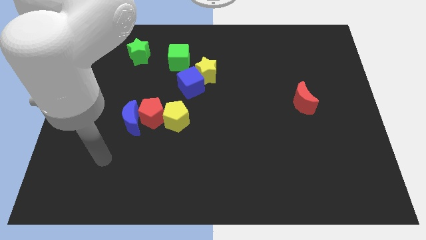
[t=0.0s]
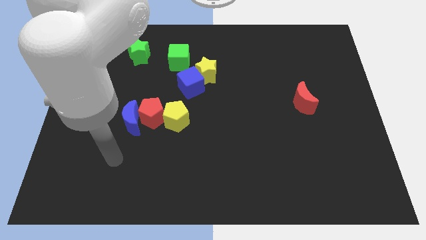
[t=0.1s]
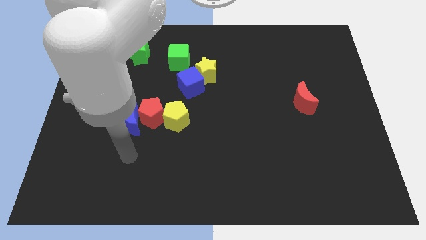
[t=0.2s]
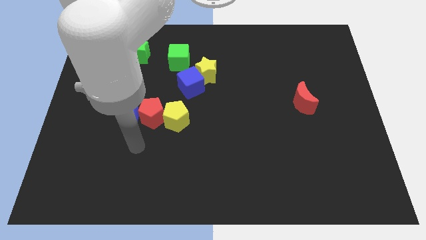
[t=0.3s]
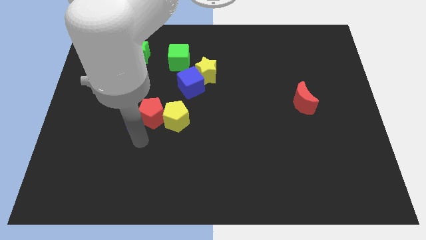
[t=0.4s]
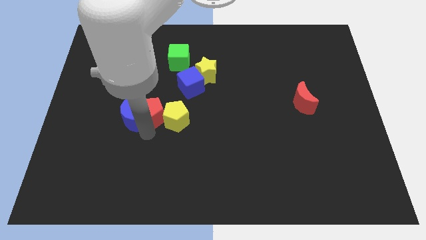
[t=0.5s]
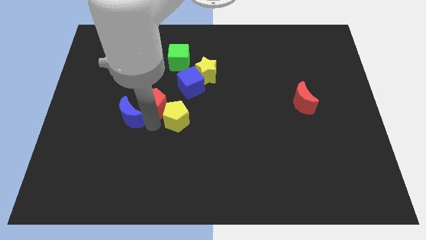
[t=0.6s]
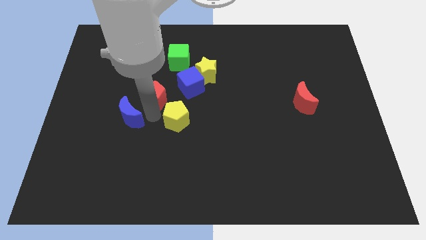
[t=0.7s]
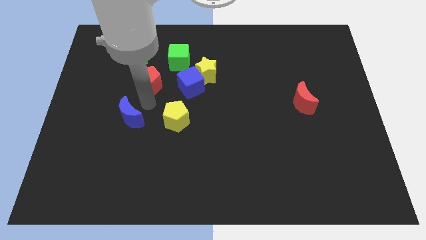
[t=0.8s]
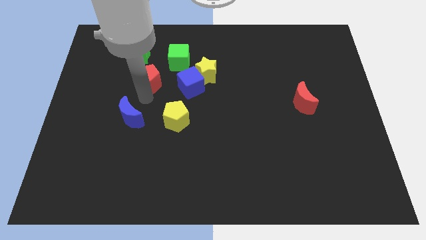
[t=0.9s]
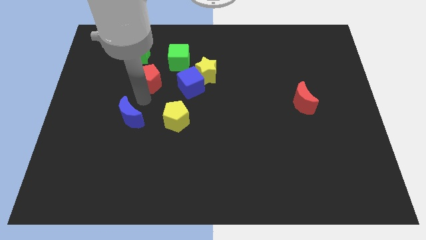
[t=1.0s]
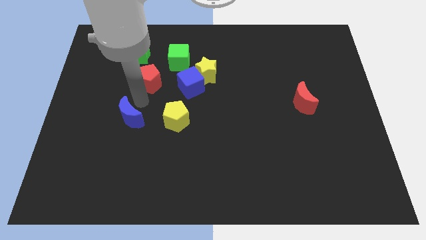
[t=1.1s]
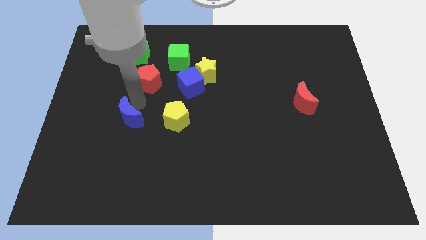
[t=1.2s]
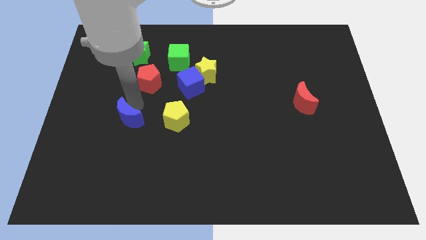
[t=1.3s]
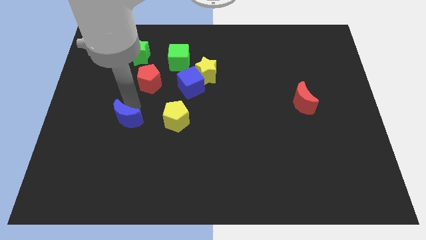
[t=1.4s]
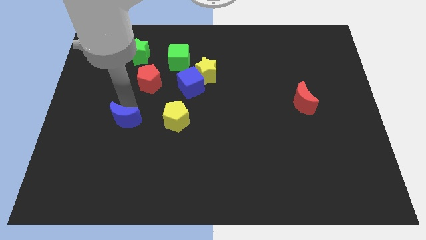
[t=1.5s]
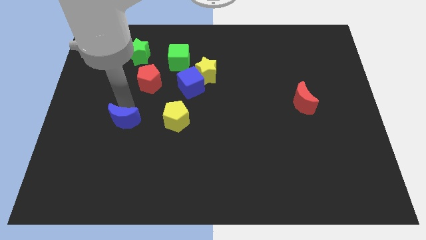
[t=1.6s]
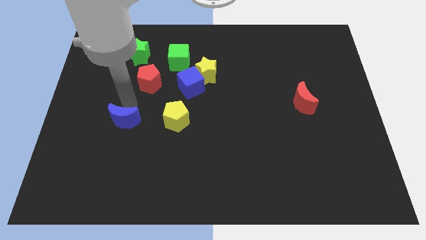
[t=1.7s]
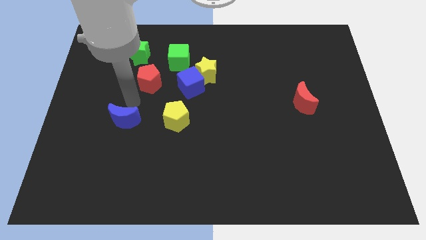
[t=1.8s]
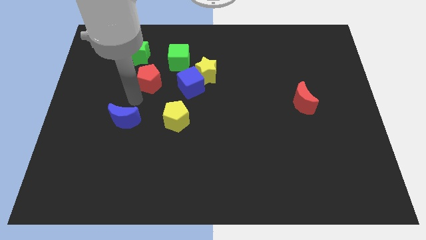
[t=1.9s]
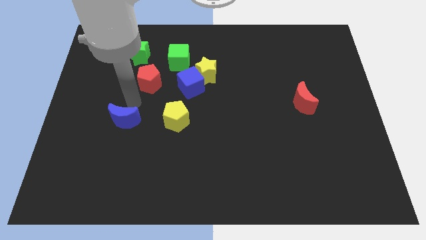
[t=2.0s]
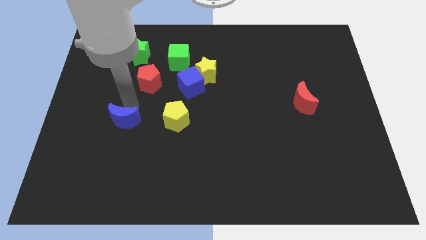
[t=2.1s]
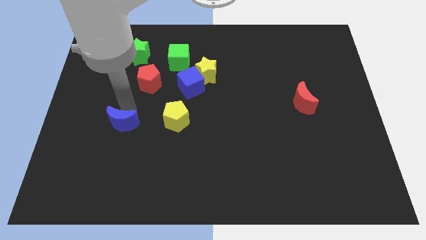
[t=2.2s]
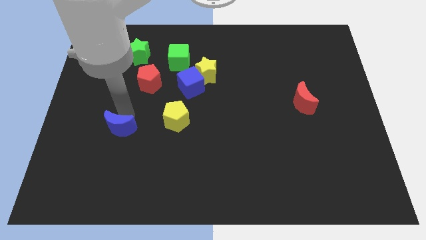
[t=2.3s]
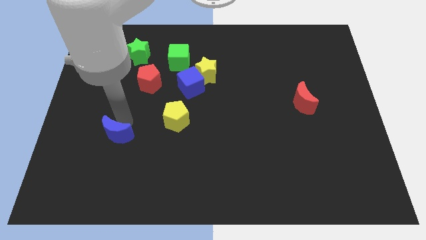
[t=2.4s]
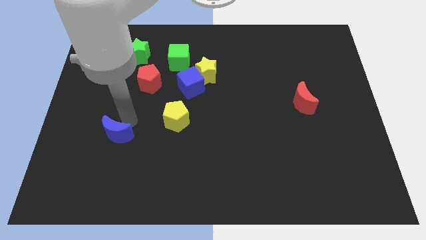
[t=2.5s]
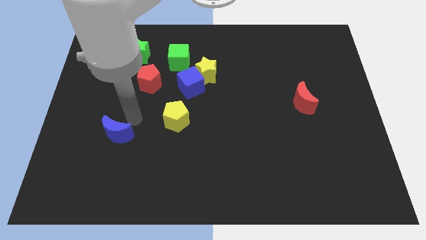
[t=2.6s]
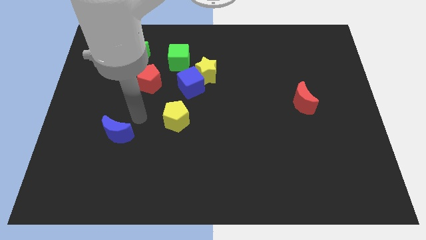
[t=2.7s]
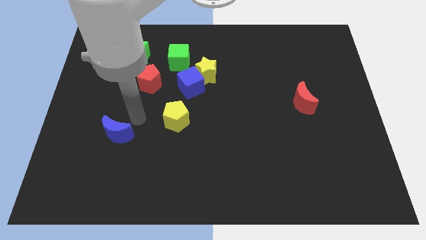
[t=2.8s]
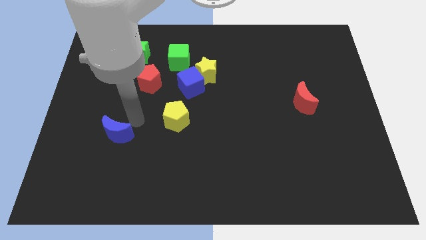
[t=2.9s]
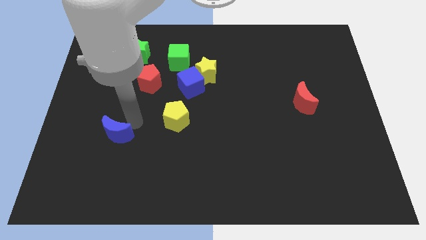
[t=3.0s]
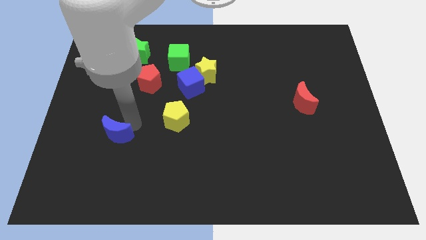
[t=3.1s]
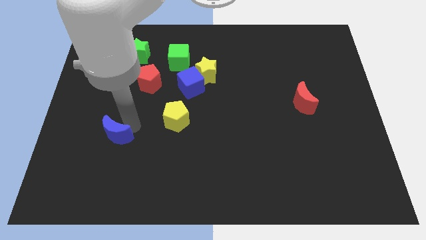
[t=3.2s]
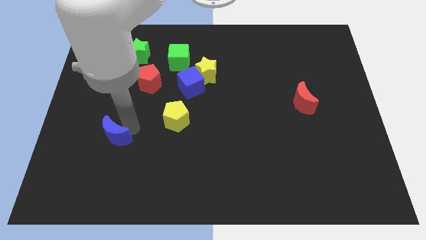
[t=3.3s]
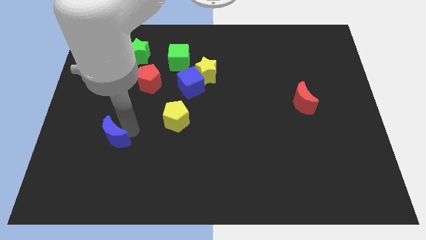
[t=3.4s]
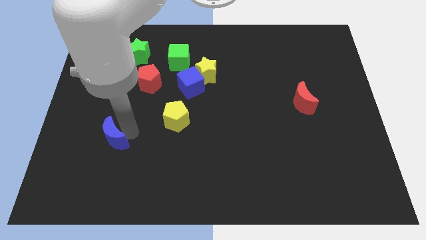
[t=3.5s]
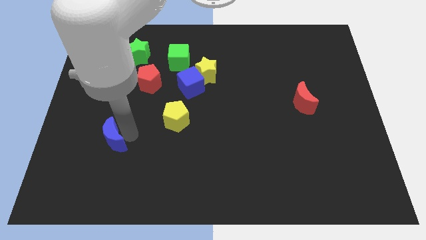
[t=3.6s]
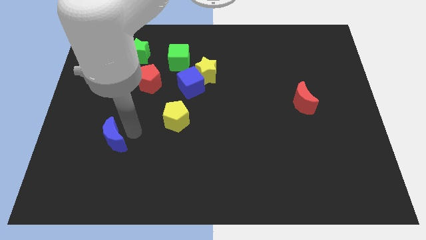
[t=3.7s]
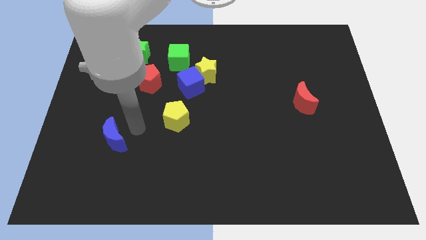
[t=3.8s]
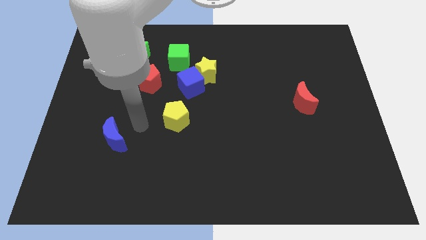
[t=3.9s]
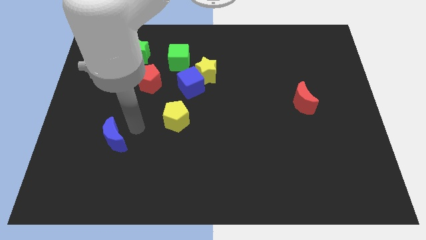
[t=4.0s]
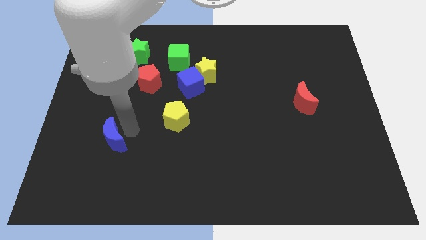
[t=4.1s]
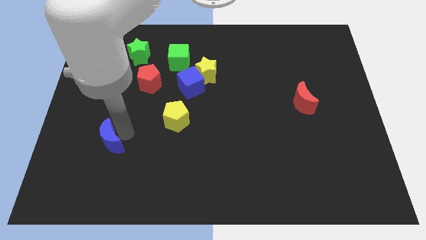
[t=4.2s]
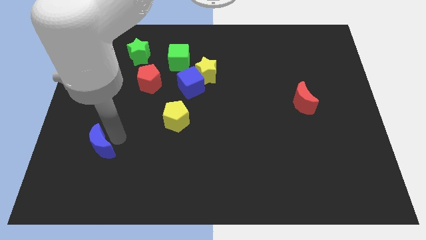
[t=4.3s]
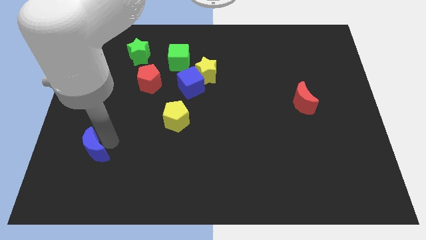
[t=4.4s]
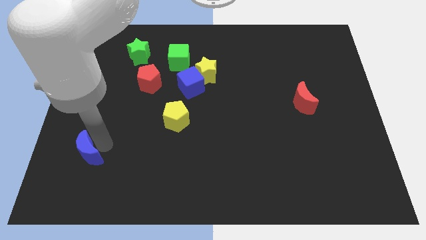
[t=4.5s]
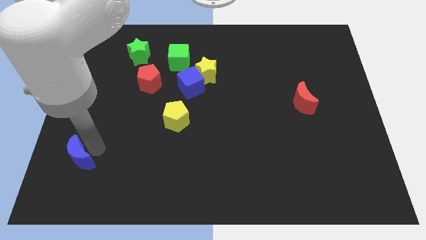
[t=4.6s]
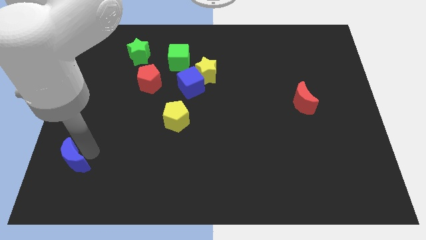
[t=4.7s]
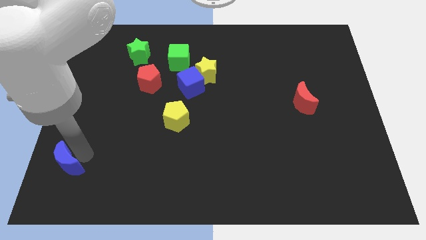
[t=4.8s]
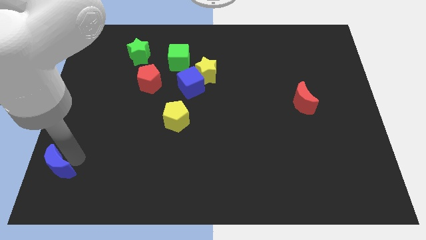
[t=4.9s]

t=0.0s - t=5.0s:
push the blue moon to the bottom left

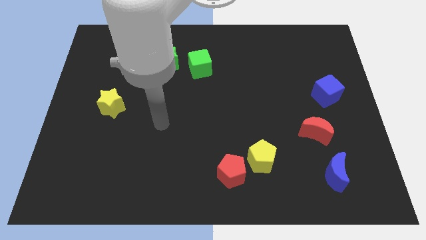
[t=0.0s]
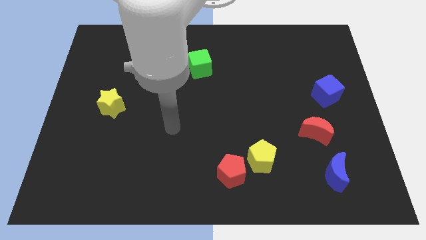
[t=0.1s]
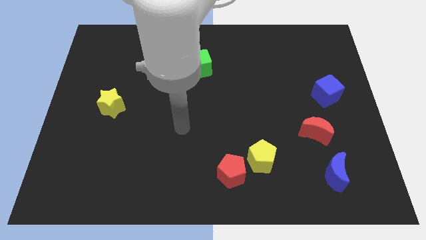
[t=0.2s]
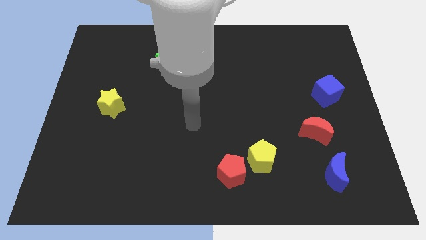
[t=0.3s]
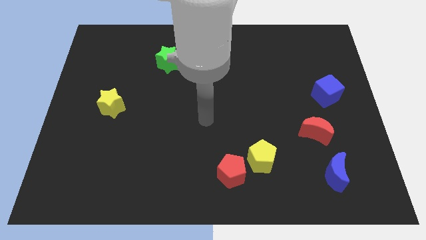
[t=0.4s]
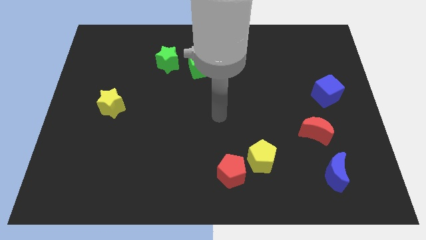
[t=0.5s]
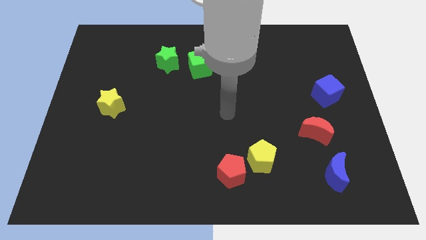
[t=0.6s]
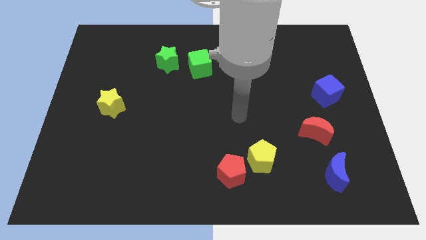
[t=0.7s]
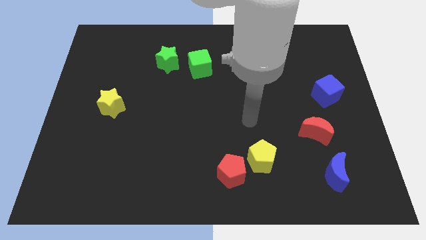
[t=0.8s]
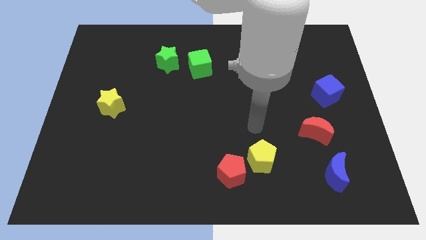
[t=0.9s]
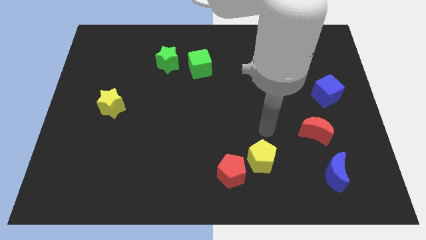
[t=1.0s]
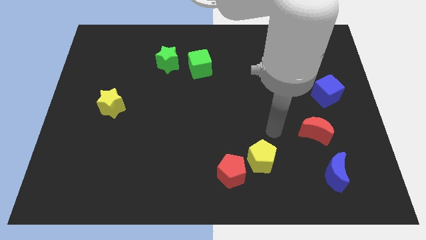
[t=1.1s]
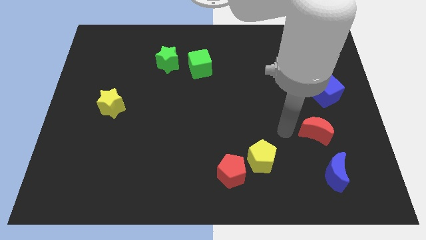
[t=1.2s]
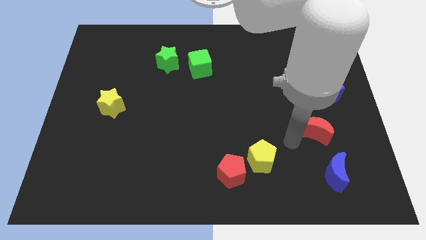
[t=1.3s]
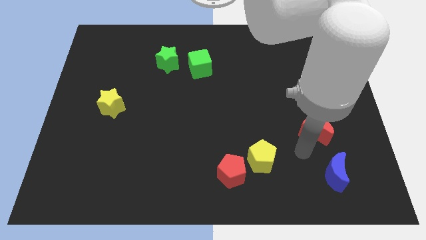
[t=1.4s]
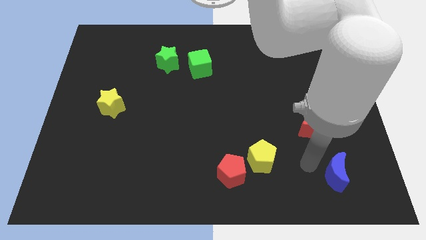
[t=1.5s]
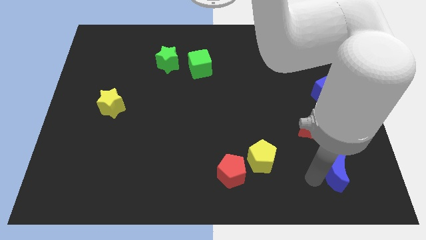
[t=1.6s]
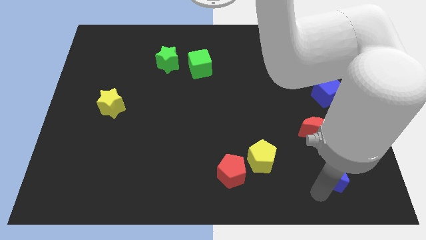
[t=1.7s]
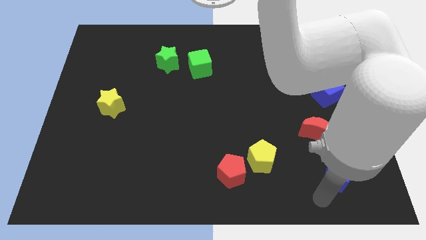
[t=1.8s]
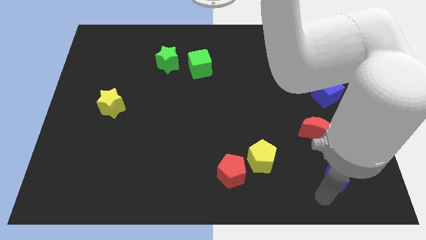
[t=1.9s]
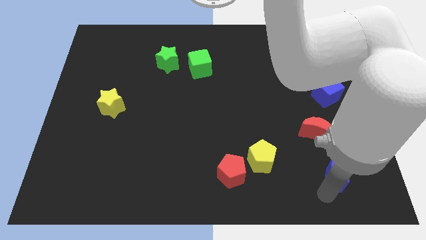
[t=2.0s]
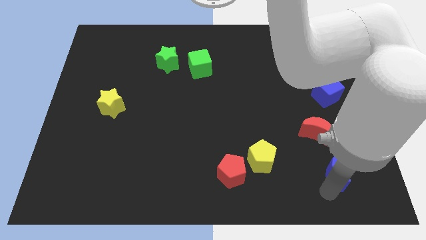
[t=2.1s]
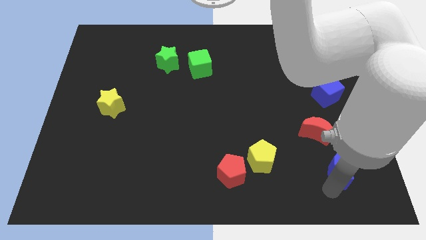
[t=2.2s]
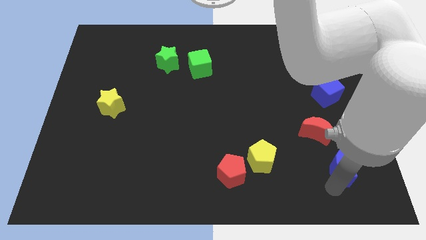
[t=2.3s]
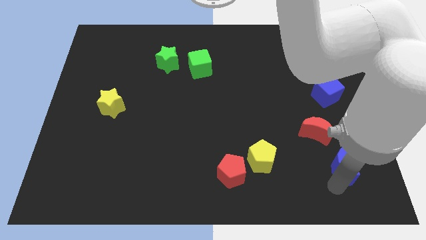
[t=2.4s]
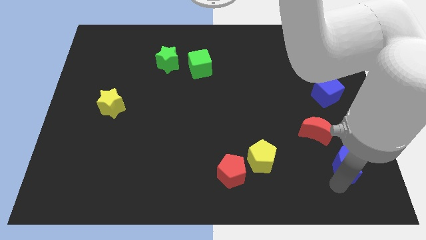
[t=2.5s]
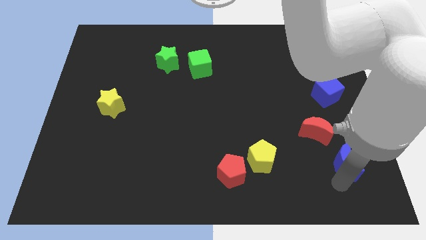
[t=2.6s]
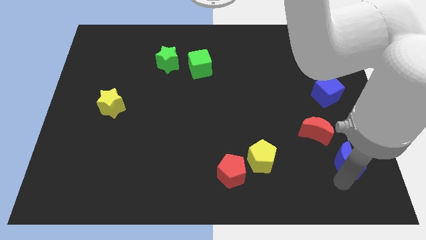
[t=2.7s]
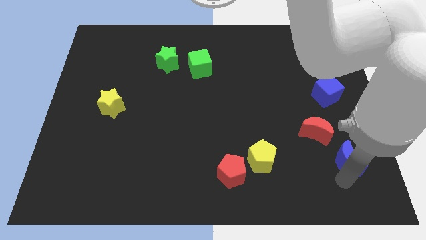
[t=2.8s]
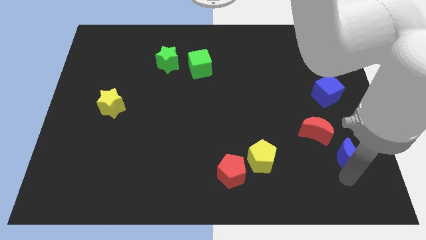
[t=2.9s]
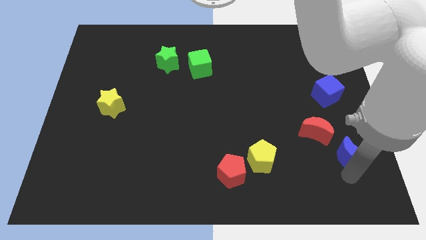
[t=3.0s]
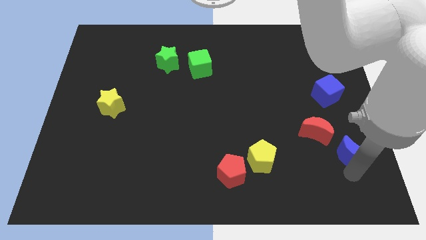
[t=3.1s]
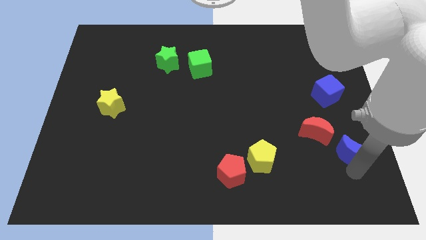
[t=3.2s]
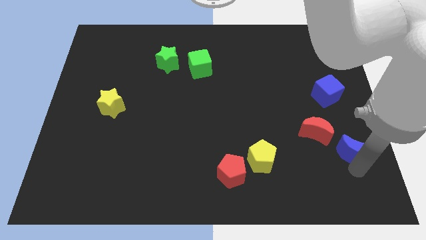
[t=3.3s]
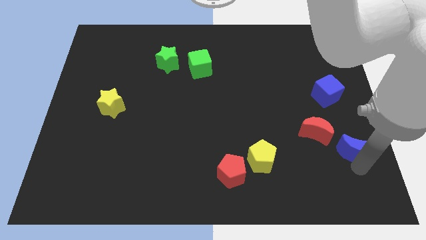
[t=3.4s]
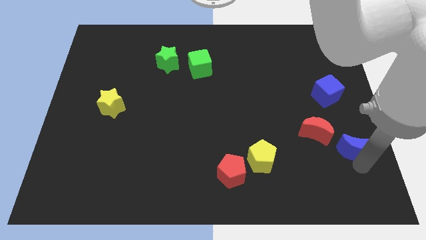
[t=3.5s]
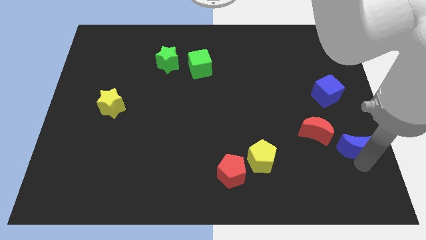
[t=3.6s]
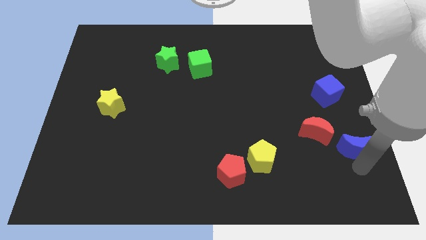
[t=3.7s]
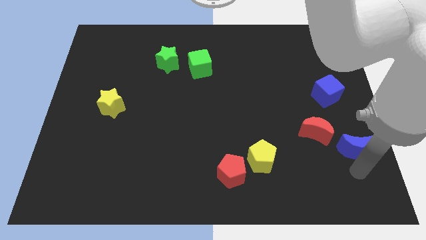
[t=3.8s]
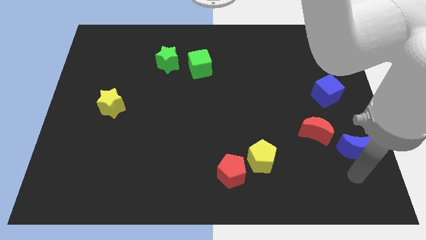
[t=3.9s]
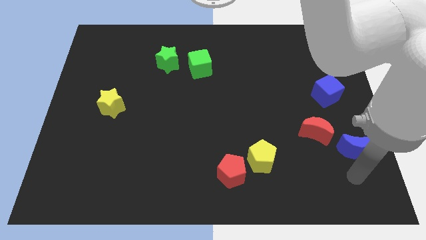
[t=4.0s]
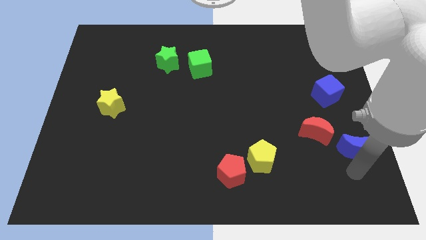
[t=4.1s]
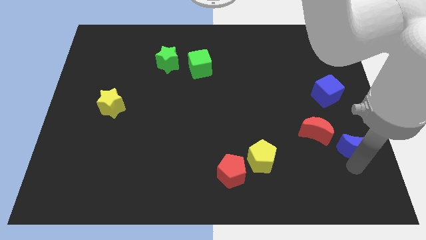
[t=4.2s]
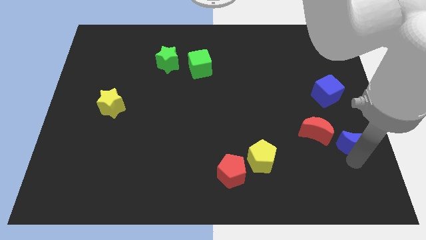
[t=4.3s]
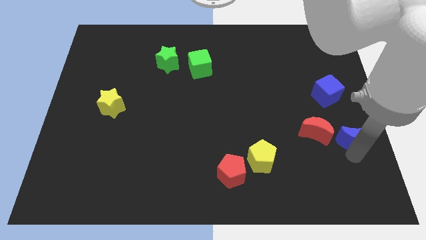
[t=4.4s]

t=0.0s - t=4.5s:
slide the blue moon to the right side
